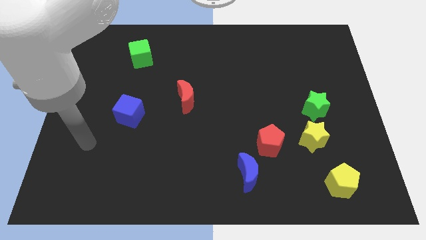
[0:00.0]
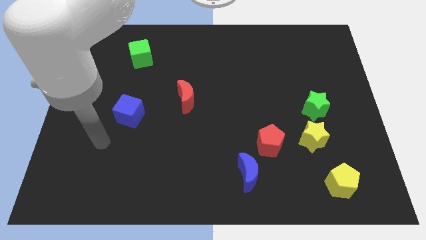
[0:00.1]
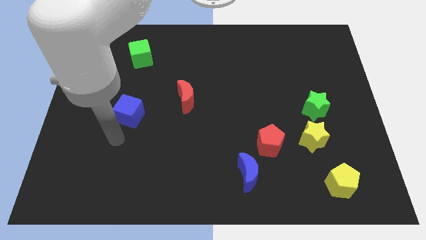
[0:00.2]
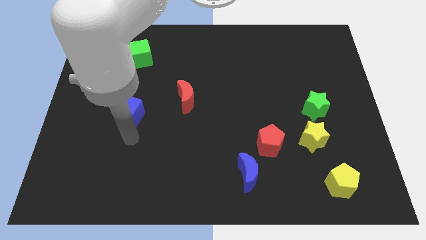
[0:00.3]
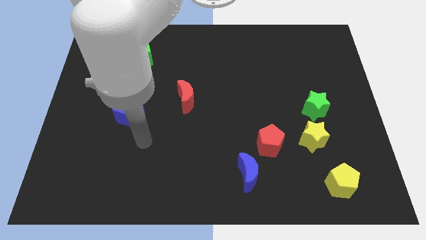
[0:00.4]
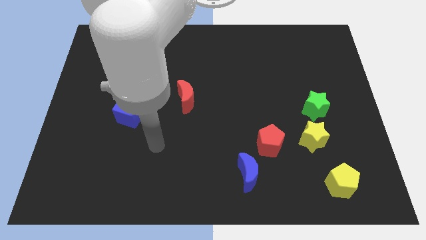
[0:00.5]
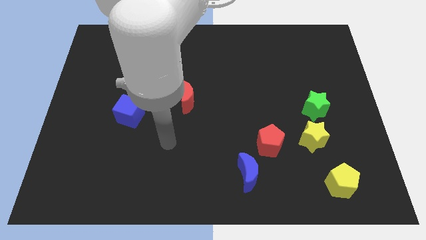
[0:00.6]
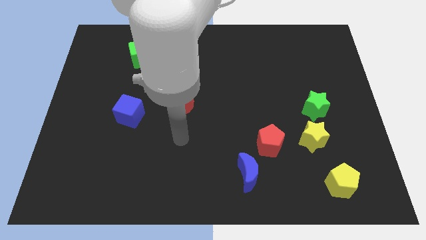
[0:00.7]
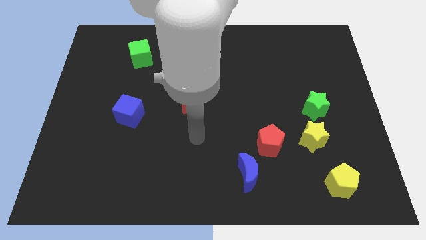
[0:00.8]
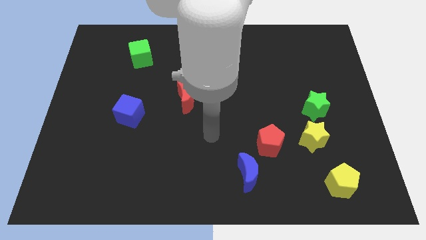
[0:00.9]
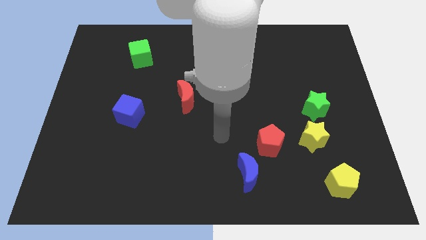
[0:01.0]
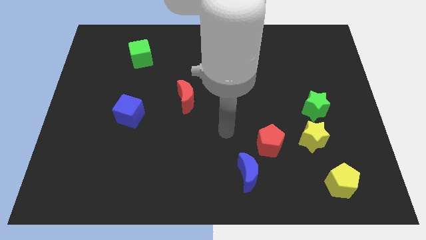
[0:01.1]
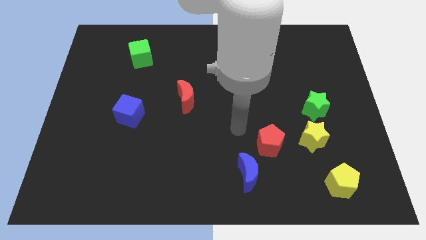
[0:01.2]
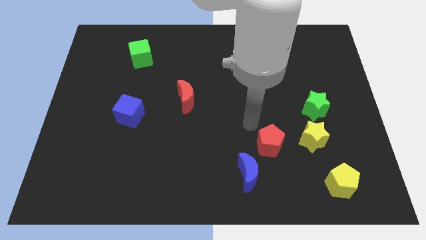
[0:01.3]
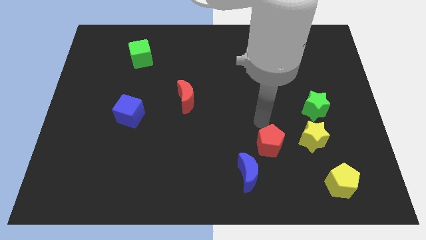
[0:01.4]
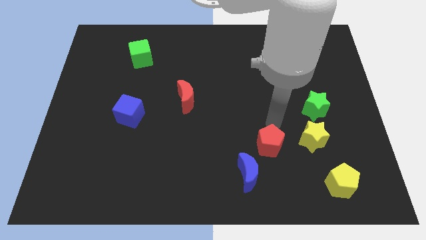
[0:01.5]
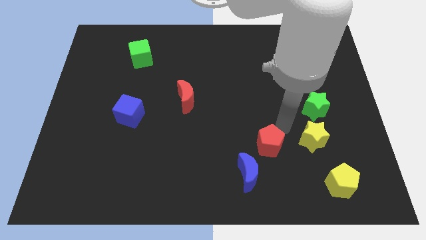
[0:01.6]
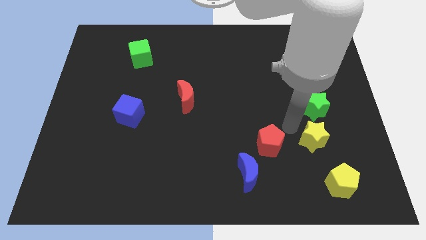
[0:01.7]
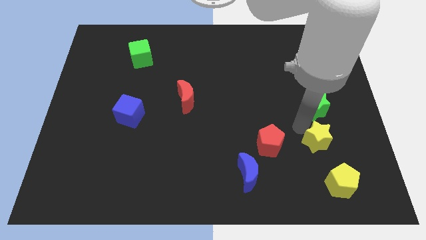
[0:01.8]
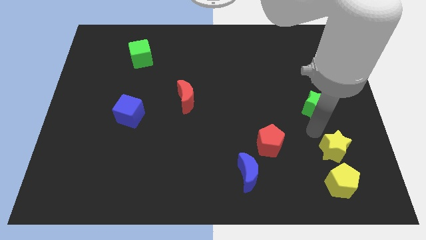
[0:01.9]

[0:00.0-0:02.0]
separate the green star from the yellow star

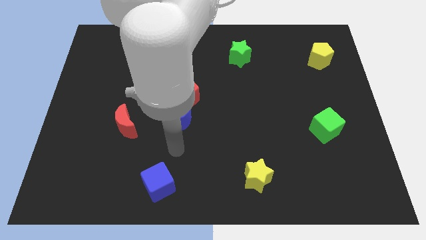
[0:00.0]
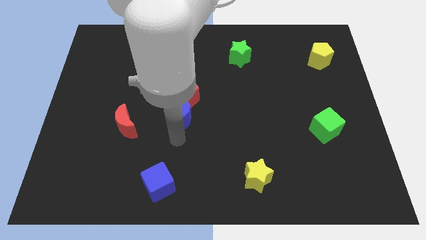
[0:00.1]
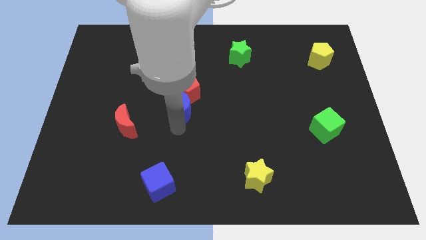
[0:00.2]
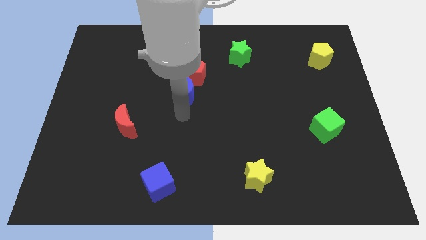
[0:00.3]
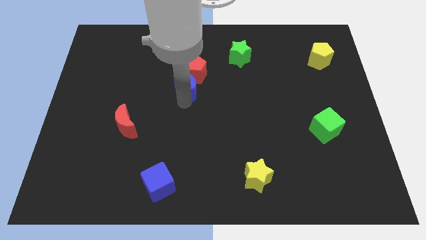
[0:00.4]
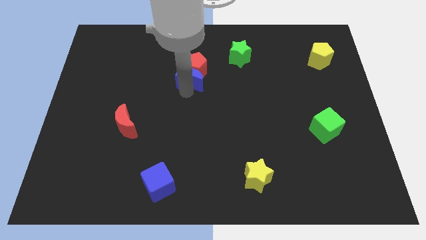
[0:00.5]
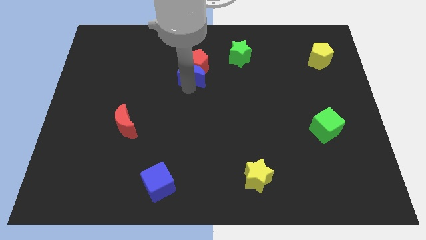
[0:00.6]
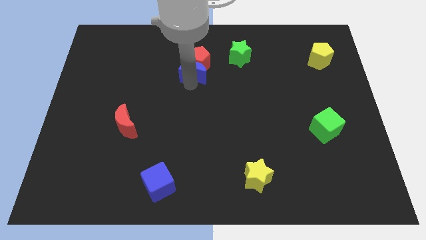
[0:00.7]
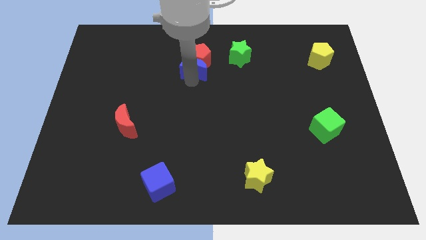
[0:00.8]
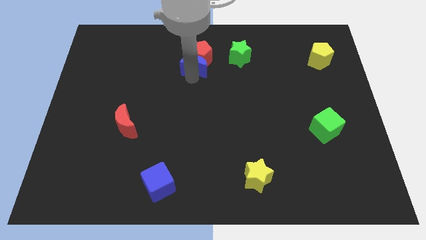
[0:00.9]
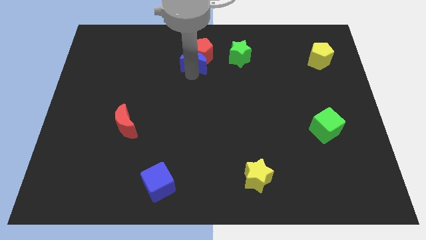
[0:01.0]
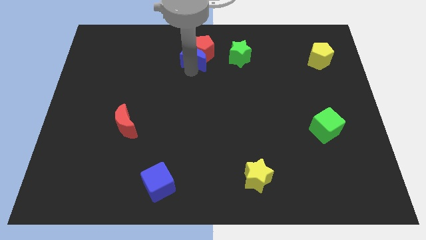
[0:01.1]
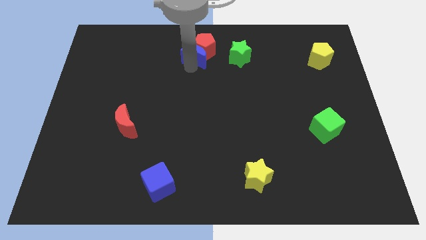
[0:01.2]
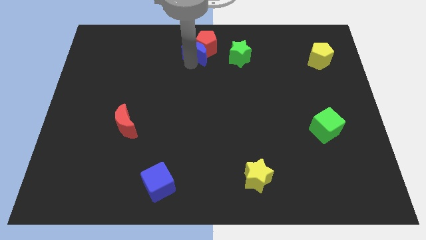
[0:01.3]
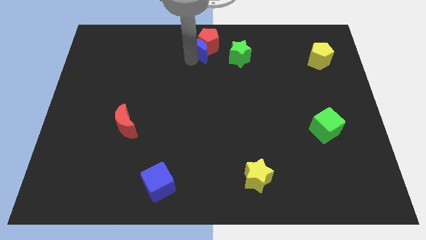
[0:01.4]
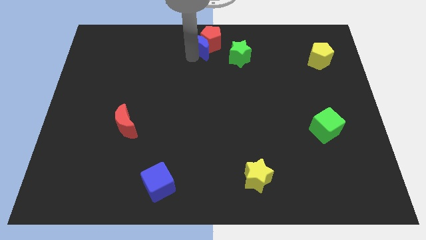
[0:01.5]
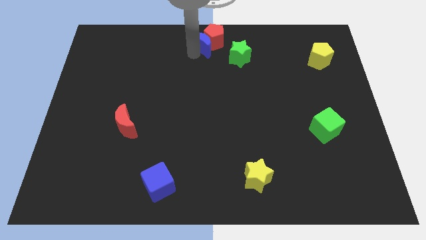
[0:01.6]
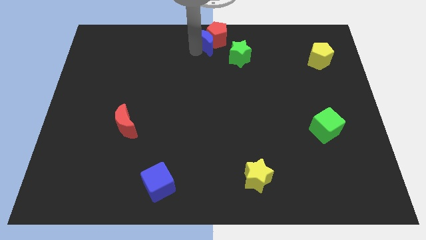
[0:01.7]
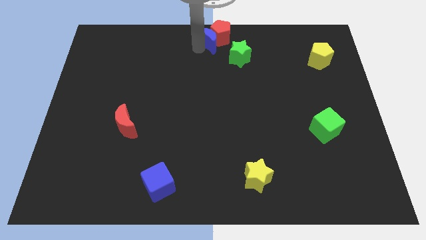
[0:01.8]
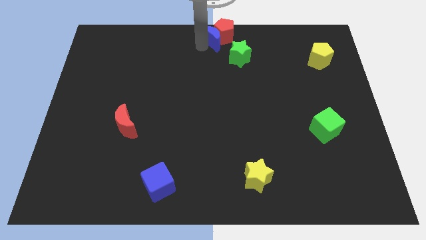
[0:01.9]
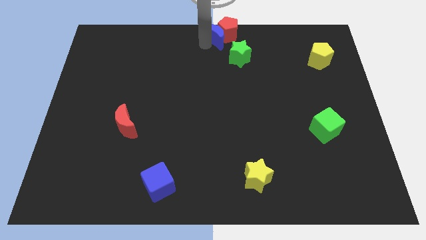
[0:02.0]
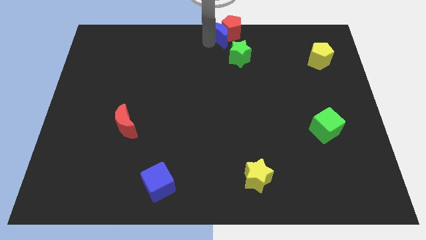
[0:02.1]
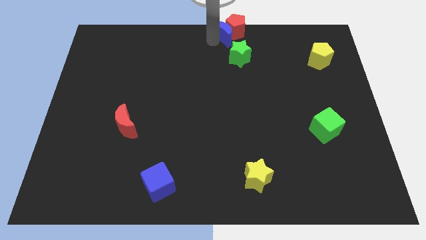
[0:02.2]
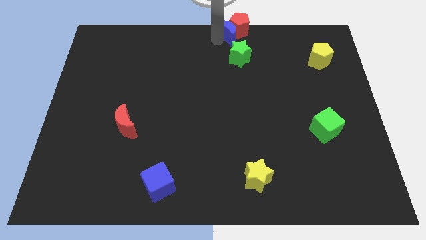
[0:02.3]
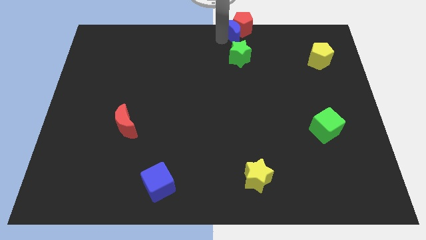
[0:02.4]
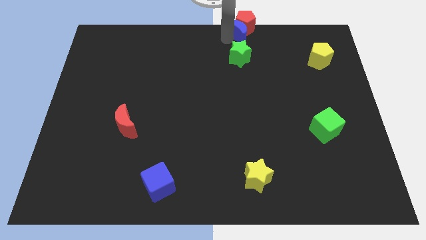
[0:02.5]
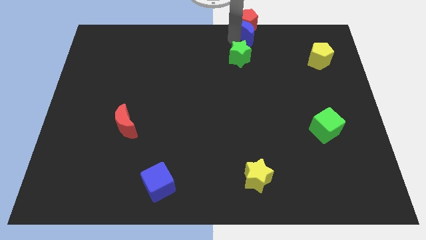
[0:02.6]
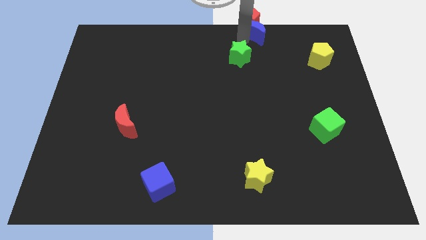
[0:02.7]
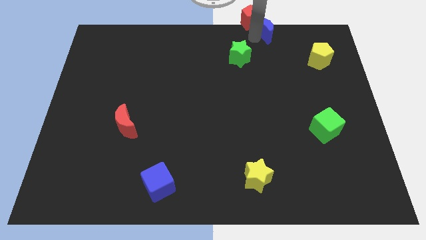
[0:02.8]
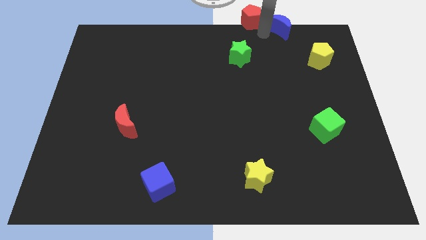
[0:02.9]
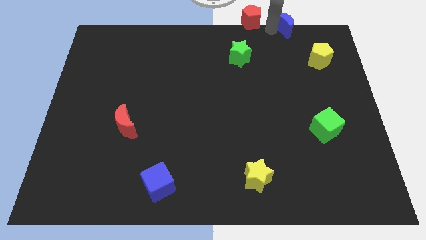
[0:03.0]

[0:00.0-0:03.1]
pull the red pentagon apart from the blue moon

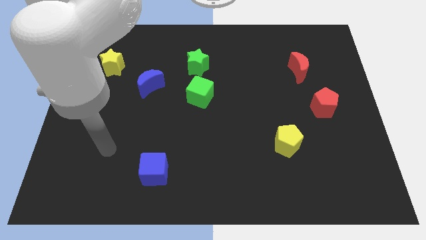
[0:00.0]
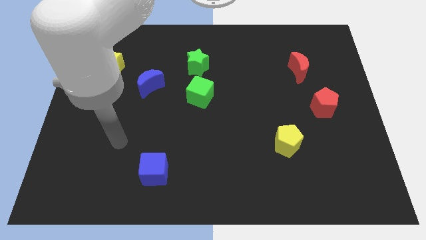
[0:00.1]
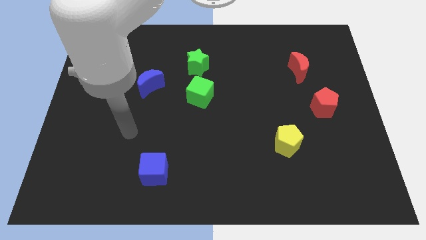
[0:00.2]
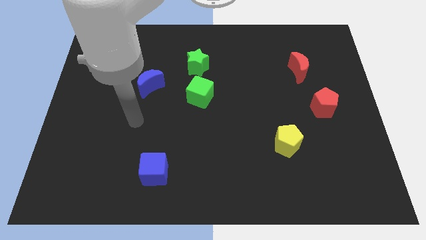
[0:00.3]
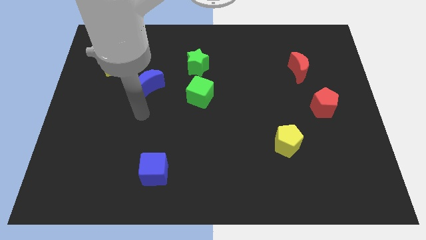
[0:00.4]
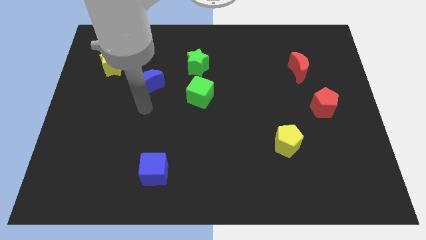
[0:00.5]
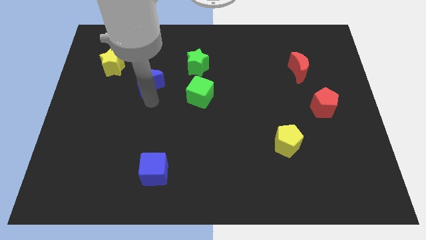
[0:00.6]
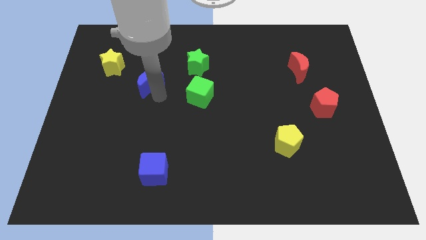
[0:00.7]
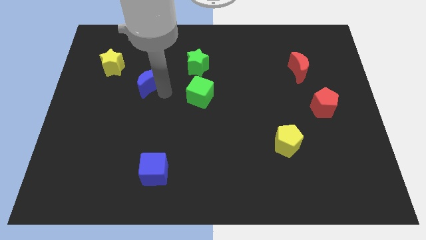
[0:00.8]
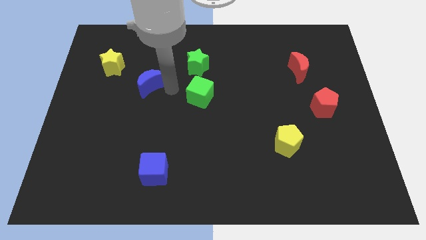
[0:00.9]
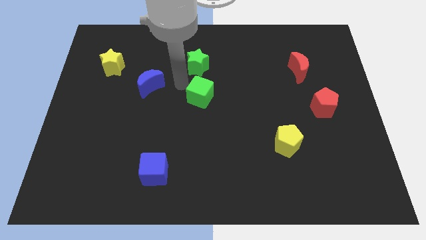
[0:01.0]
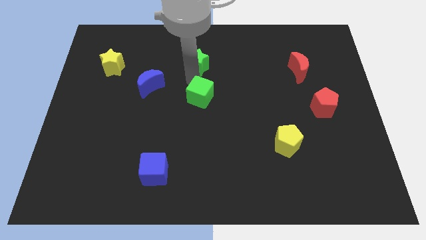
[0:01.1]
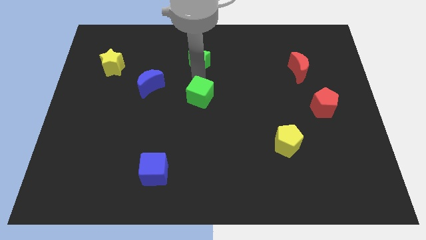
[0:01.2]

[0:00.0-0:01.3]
move the green cube away from the green star

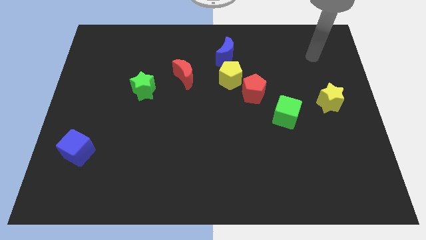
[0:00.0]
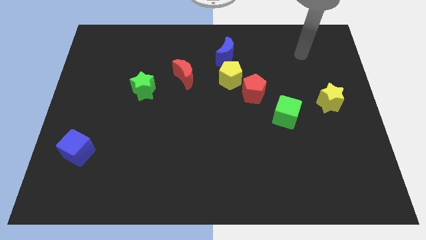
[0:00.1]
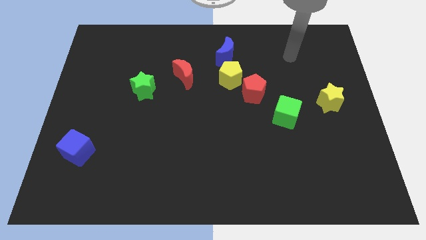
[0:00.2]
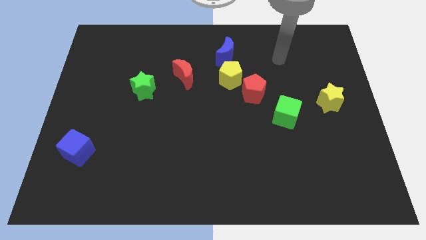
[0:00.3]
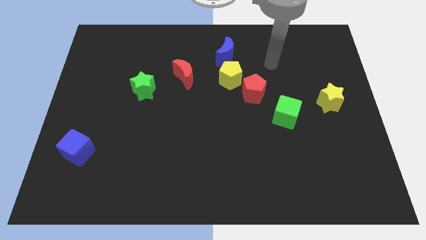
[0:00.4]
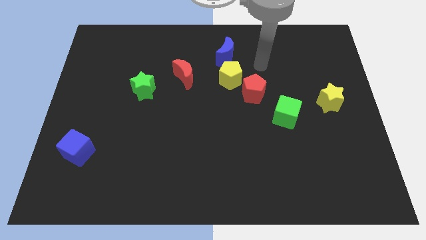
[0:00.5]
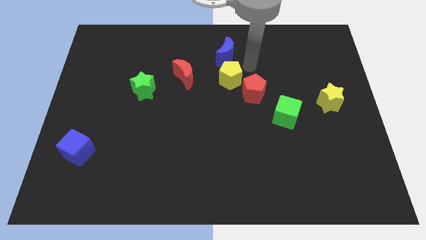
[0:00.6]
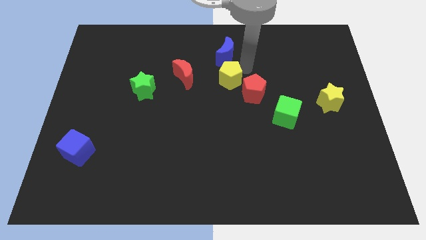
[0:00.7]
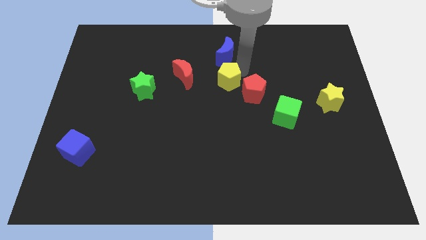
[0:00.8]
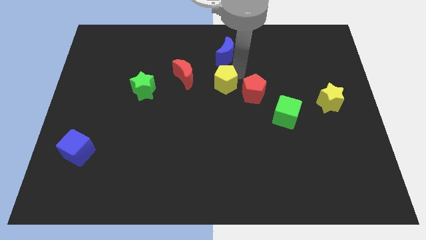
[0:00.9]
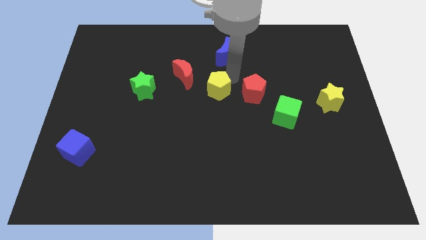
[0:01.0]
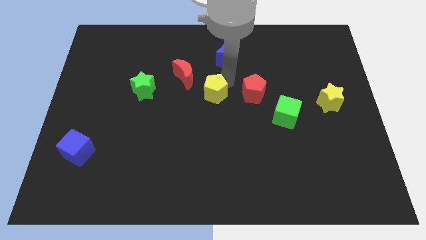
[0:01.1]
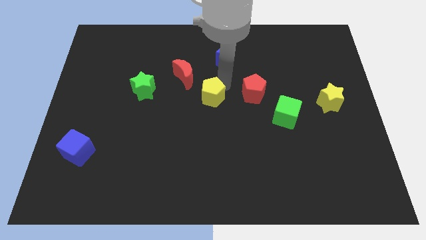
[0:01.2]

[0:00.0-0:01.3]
move the yellow pentagon away from the red pentagon and blue moon

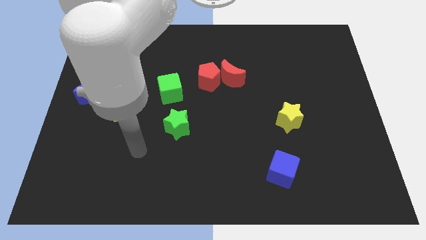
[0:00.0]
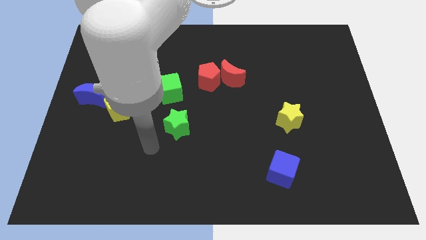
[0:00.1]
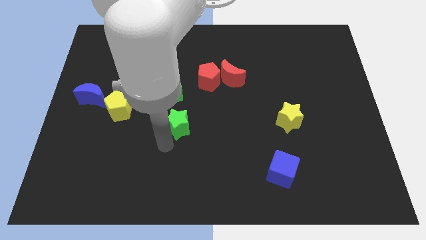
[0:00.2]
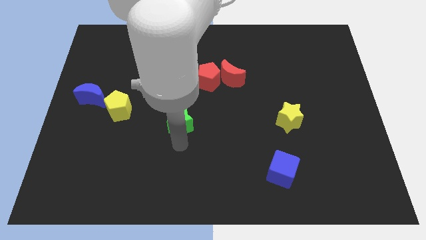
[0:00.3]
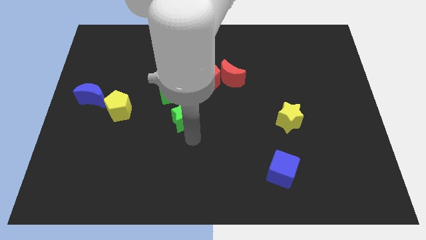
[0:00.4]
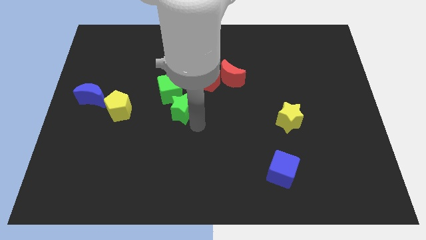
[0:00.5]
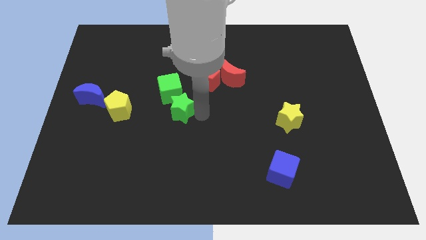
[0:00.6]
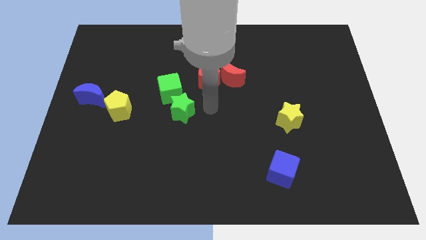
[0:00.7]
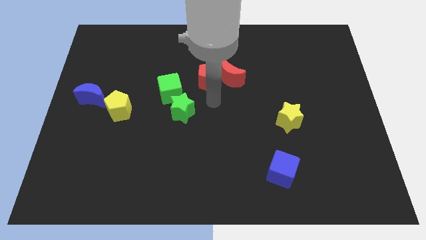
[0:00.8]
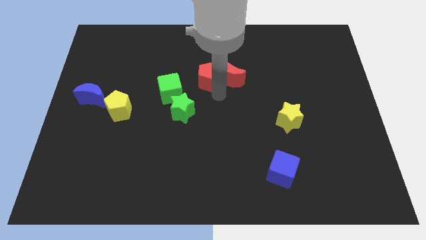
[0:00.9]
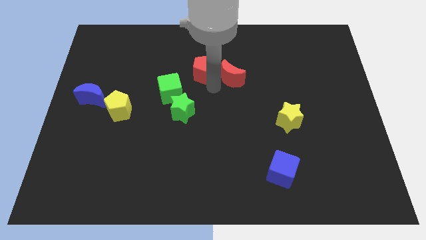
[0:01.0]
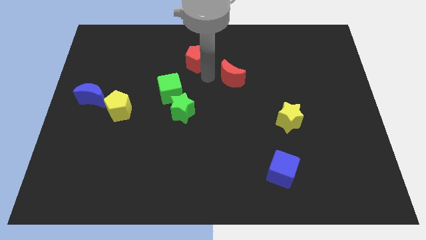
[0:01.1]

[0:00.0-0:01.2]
move the red moon away from the red pentagon

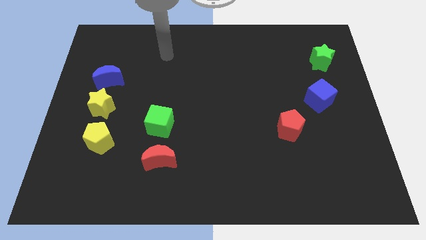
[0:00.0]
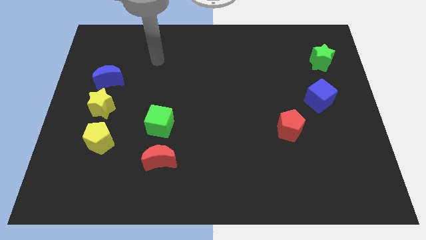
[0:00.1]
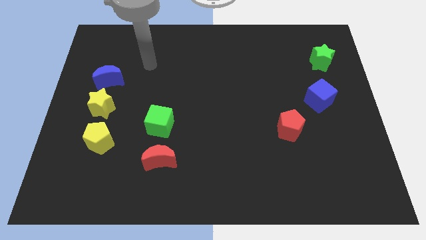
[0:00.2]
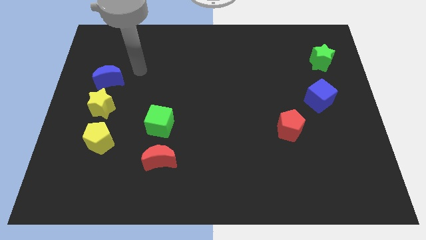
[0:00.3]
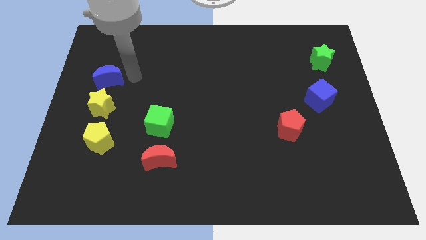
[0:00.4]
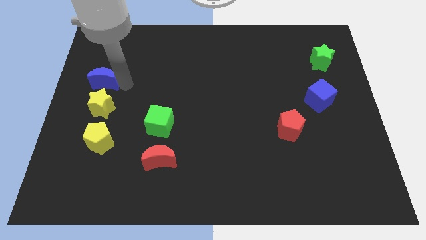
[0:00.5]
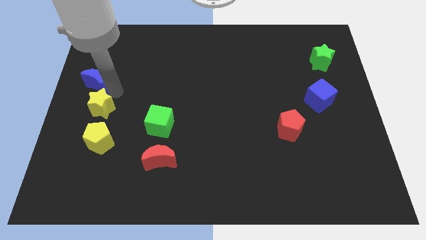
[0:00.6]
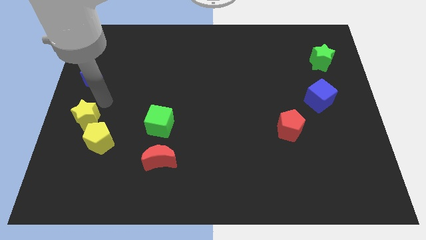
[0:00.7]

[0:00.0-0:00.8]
move the blue moon away from the yellow star
